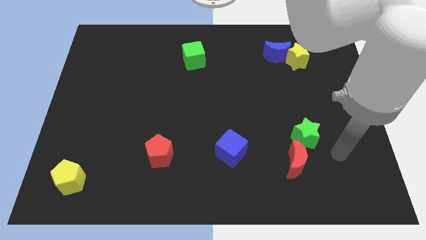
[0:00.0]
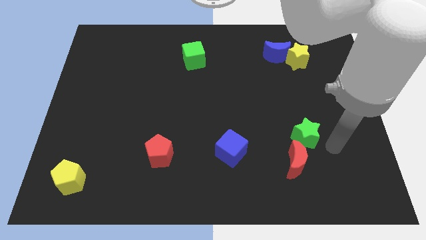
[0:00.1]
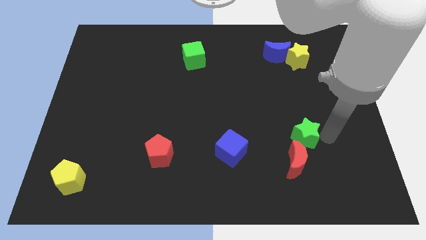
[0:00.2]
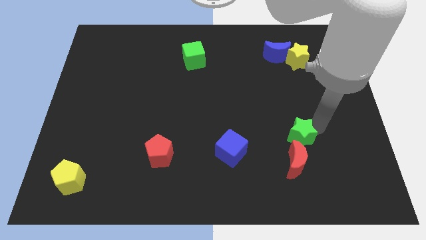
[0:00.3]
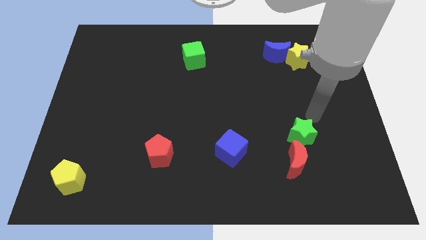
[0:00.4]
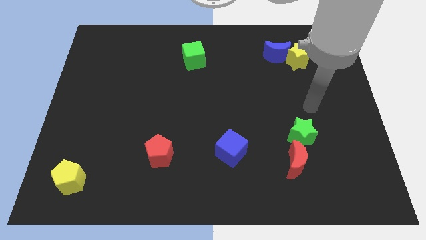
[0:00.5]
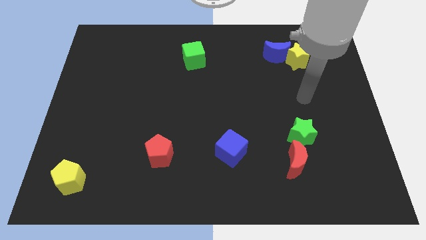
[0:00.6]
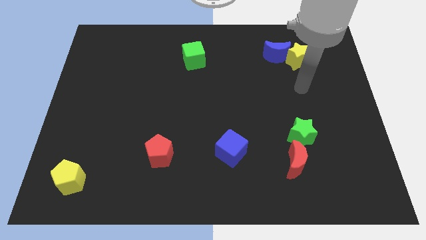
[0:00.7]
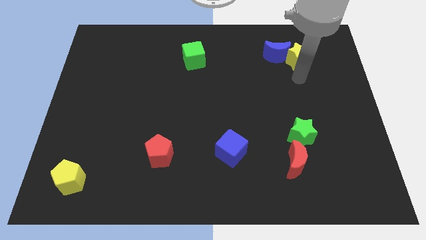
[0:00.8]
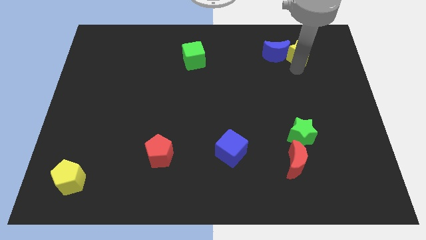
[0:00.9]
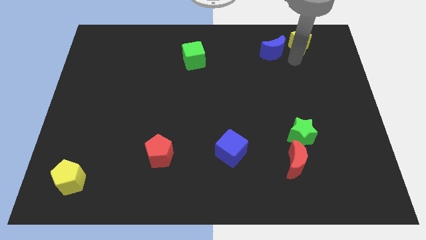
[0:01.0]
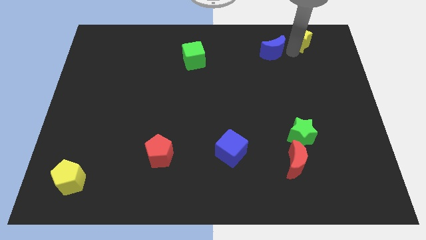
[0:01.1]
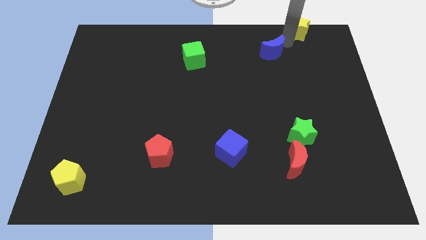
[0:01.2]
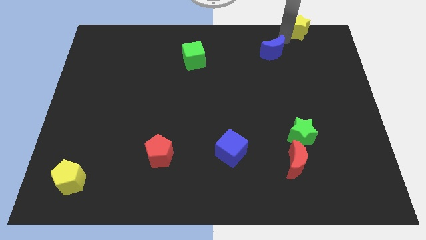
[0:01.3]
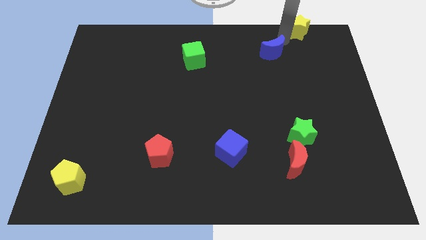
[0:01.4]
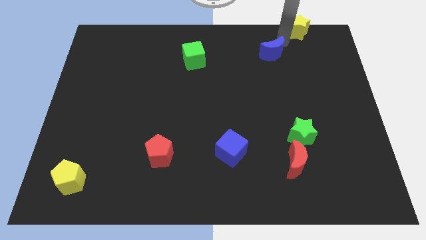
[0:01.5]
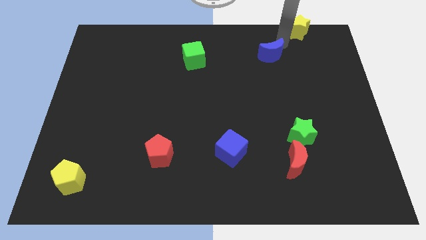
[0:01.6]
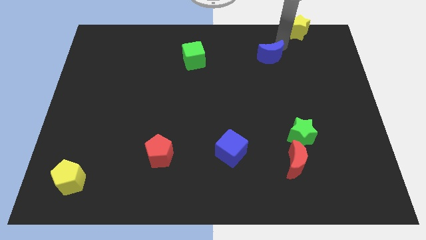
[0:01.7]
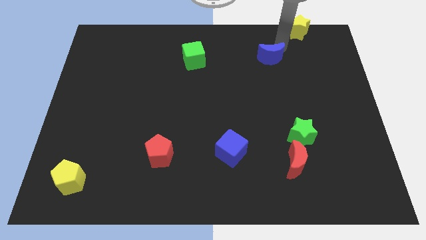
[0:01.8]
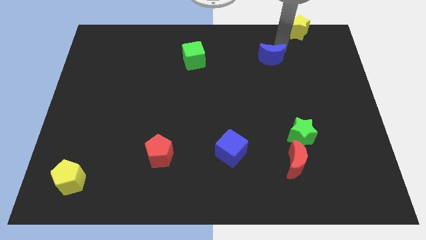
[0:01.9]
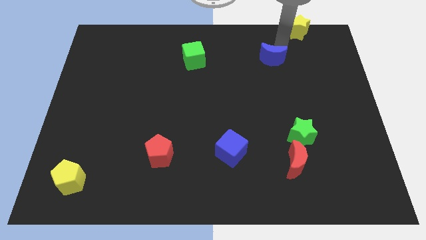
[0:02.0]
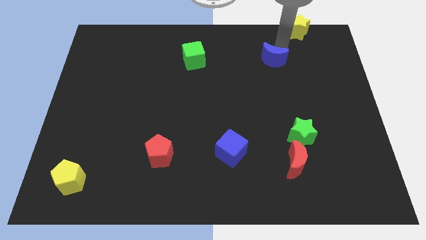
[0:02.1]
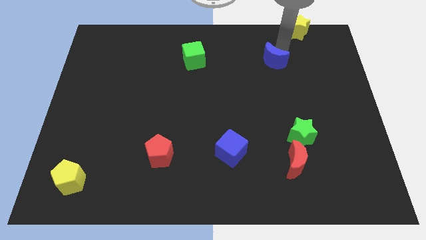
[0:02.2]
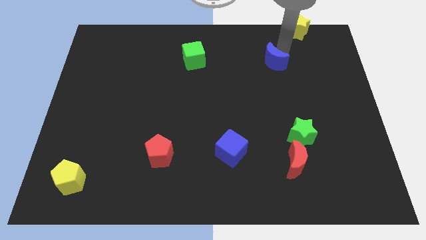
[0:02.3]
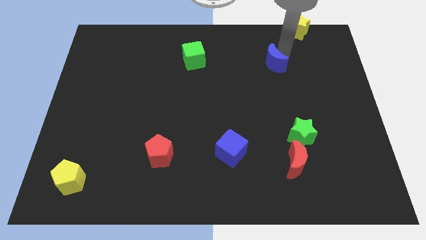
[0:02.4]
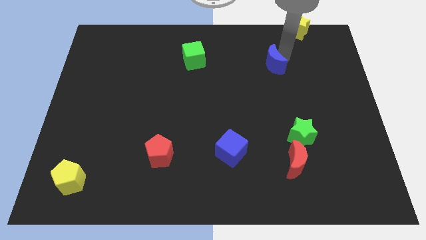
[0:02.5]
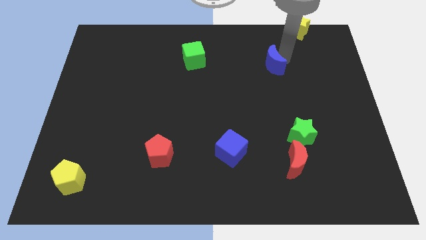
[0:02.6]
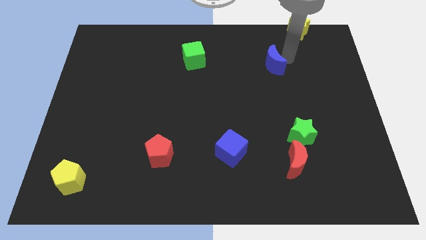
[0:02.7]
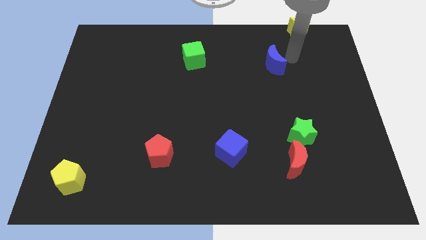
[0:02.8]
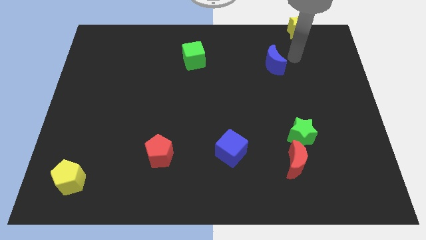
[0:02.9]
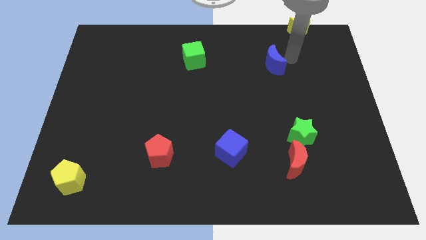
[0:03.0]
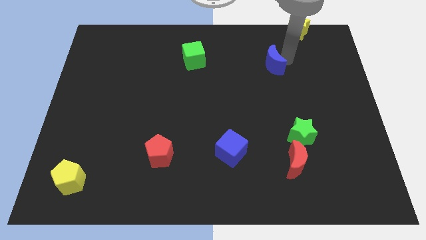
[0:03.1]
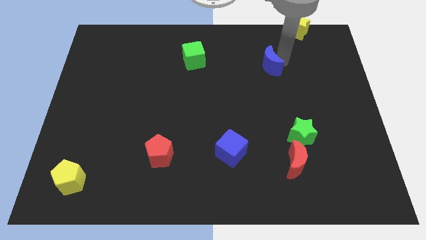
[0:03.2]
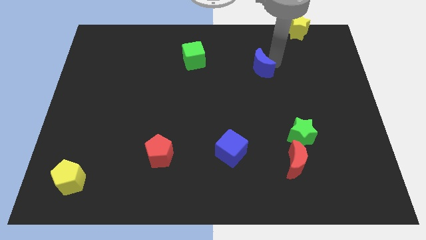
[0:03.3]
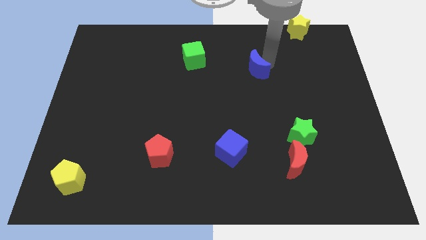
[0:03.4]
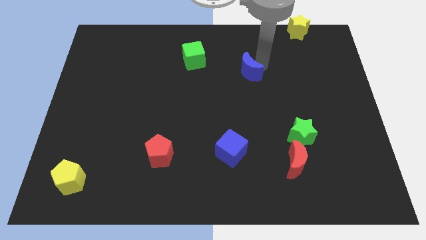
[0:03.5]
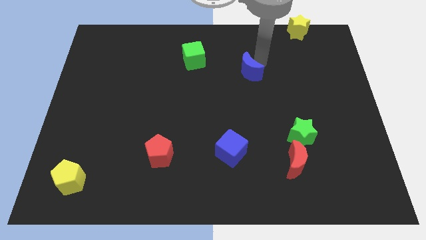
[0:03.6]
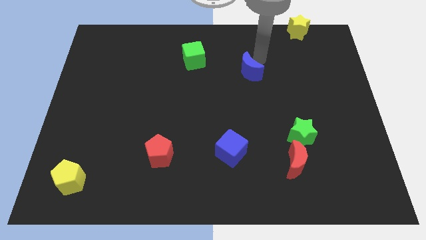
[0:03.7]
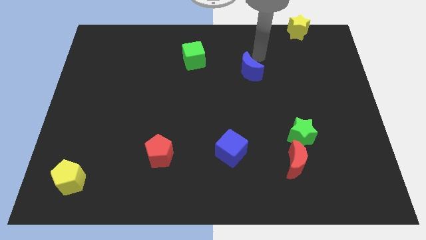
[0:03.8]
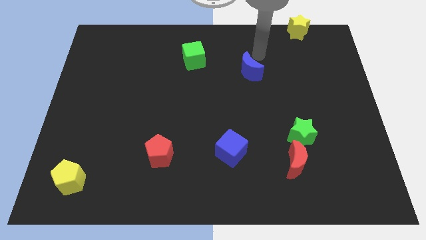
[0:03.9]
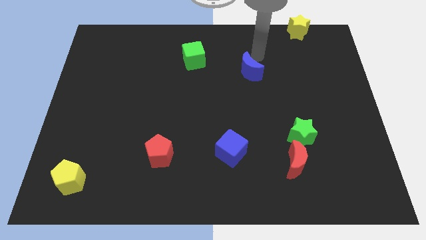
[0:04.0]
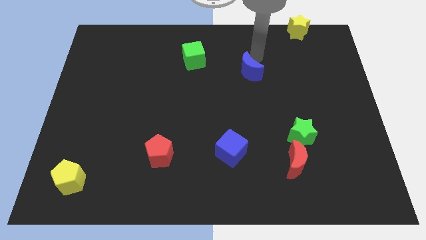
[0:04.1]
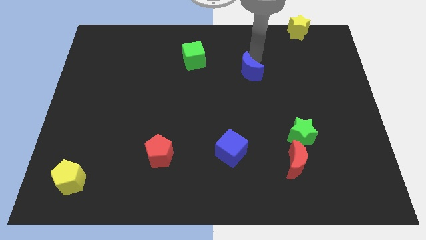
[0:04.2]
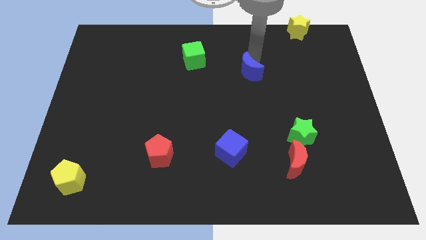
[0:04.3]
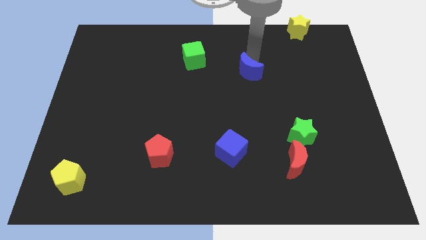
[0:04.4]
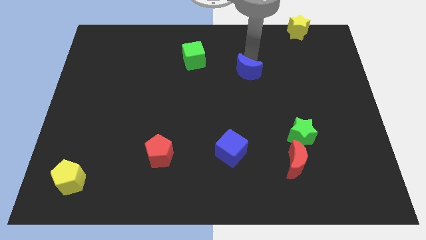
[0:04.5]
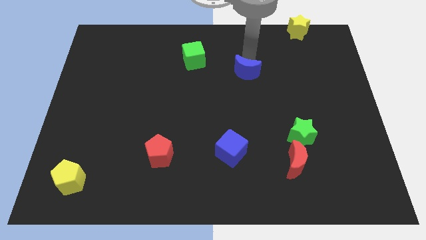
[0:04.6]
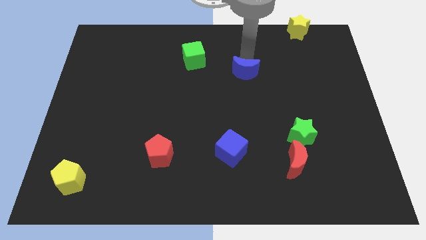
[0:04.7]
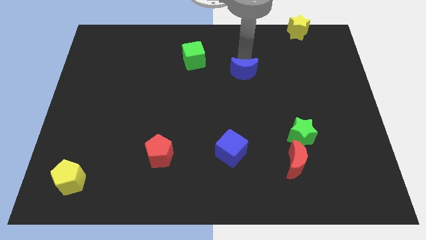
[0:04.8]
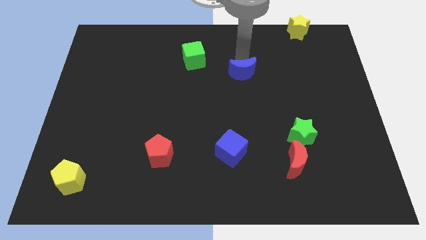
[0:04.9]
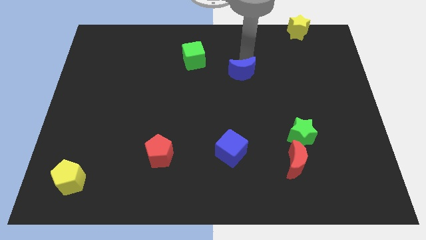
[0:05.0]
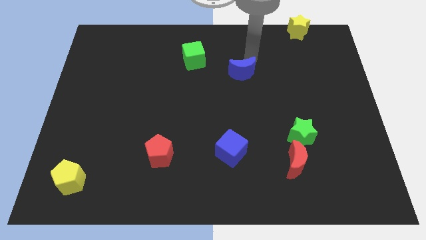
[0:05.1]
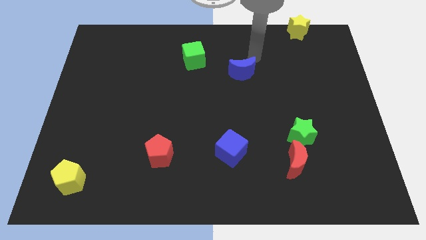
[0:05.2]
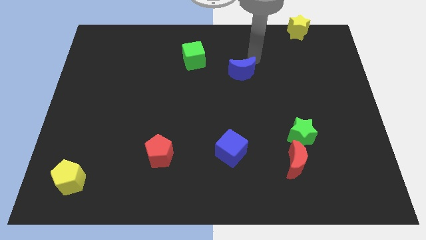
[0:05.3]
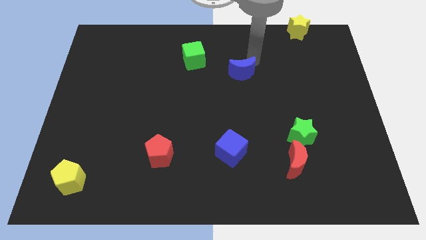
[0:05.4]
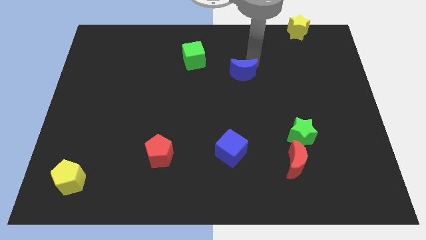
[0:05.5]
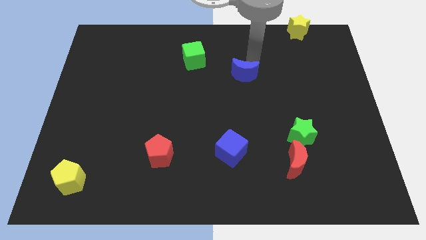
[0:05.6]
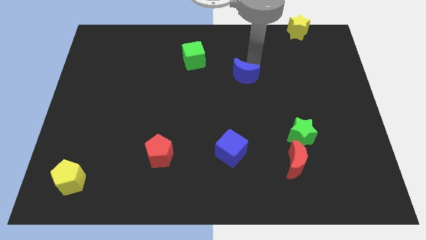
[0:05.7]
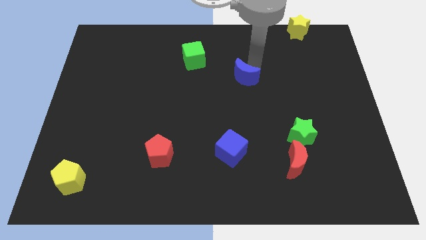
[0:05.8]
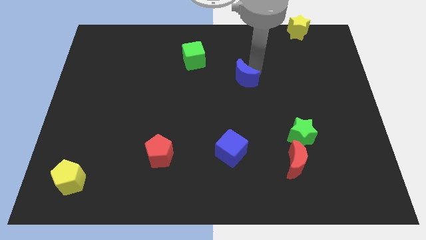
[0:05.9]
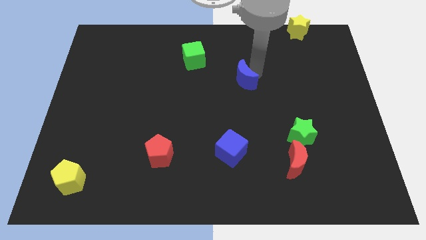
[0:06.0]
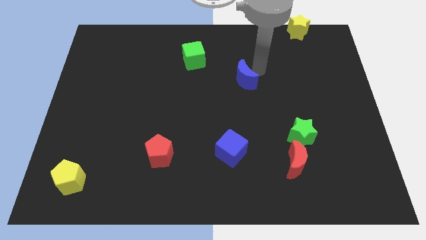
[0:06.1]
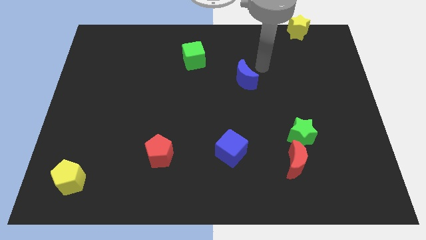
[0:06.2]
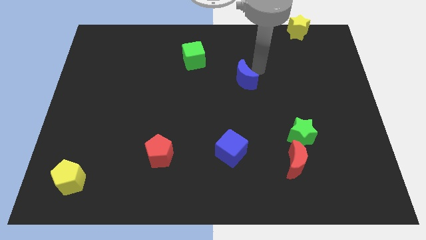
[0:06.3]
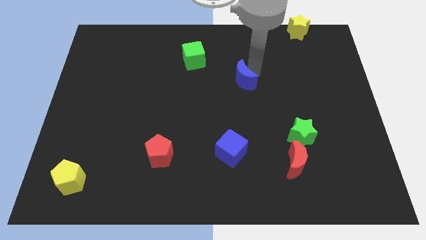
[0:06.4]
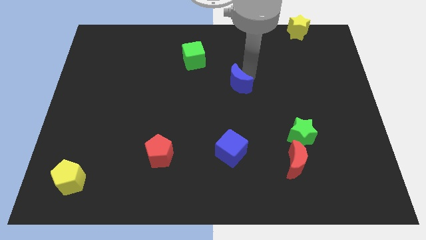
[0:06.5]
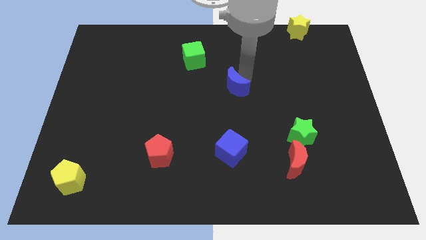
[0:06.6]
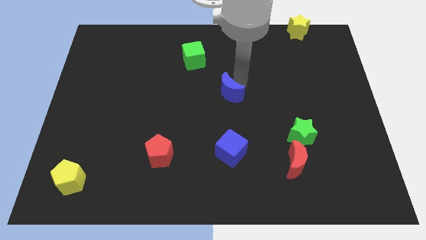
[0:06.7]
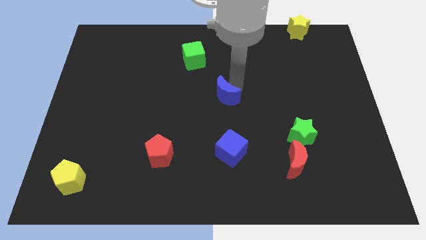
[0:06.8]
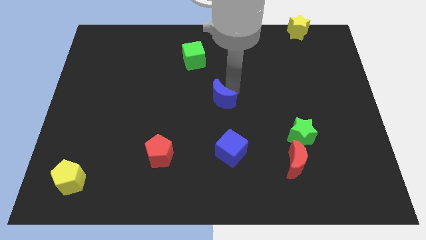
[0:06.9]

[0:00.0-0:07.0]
push the blue moon diagonally down and left

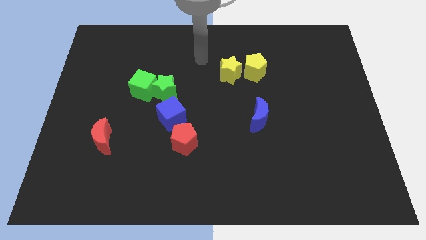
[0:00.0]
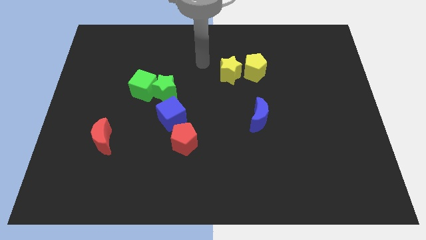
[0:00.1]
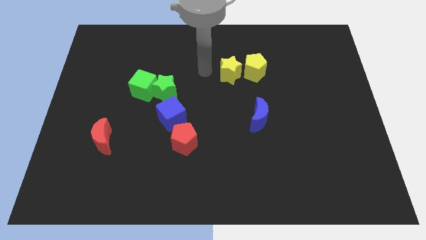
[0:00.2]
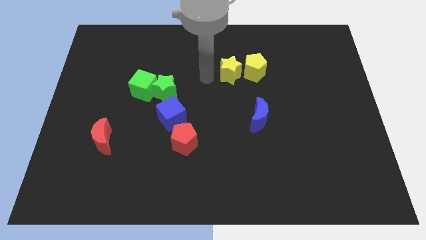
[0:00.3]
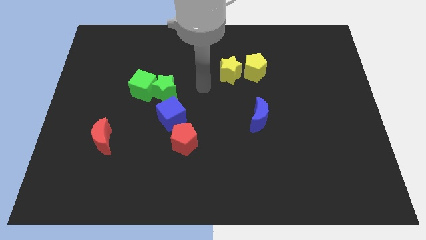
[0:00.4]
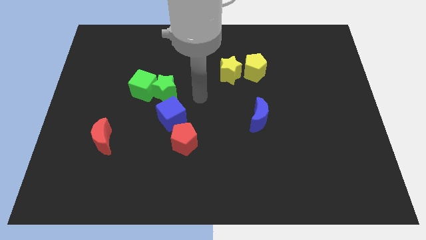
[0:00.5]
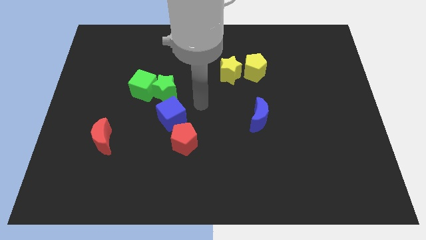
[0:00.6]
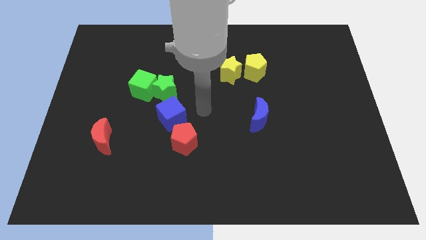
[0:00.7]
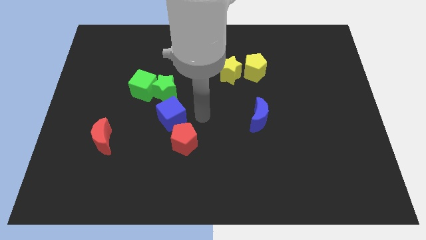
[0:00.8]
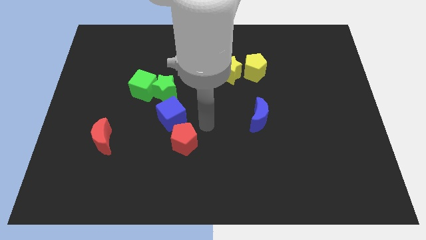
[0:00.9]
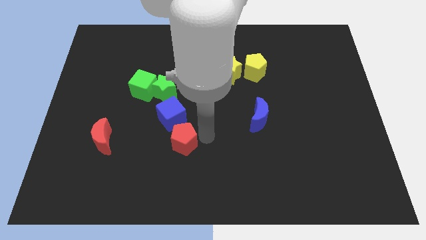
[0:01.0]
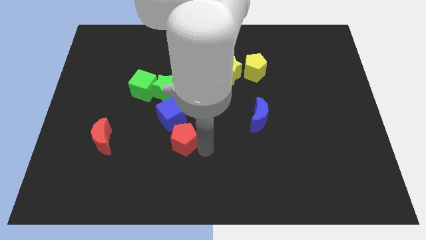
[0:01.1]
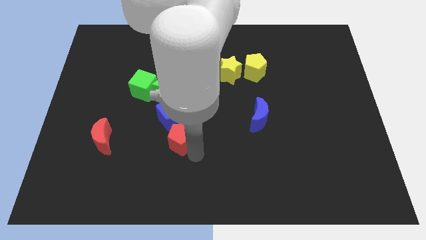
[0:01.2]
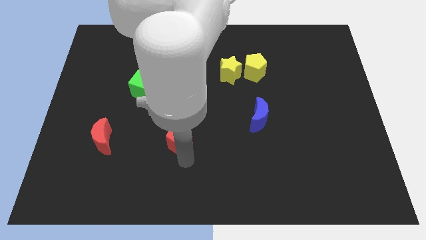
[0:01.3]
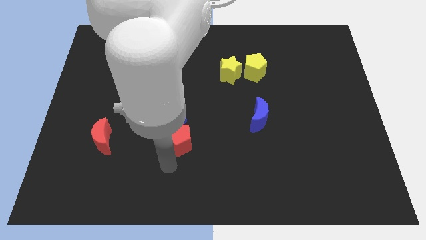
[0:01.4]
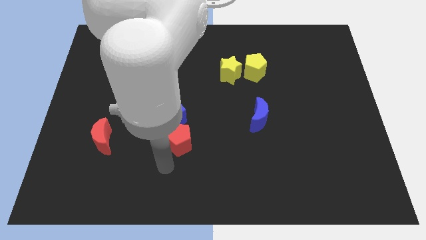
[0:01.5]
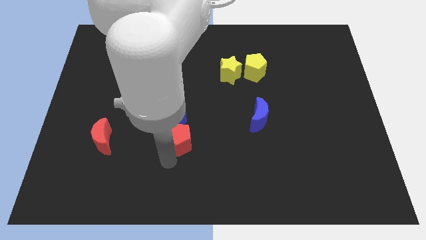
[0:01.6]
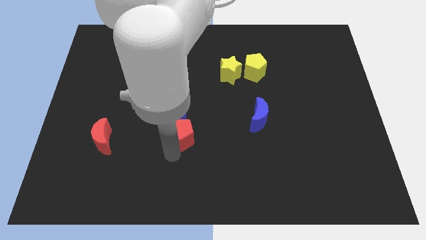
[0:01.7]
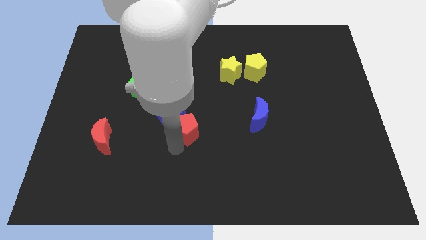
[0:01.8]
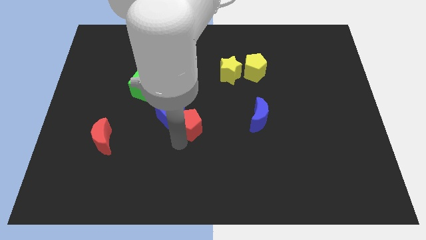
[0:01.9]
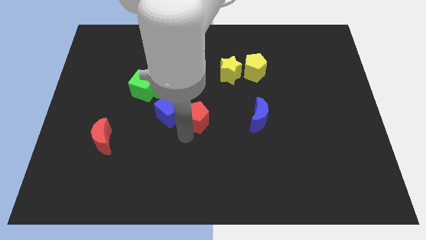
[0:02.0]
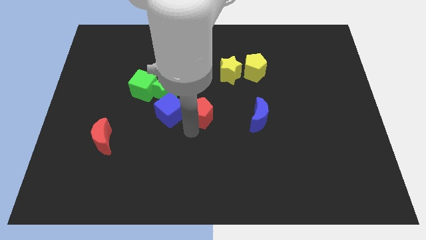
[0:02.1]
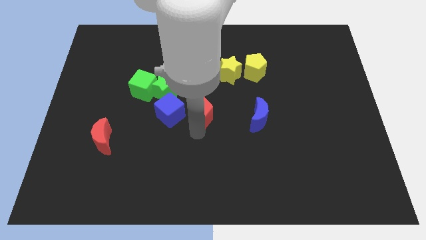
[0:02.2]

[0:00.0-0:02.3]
slightly slide the red pentagon upwards
